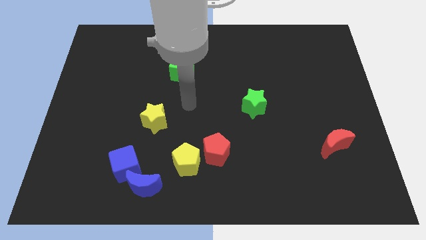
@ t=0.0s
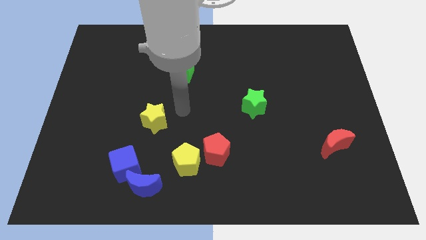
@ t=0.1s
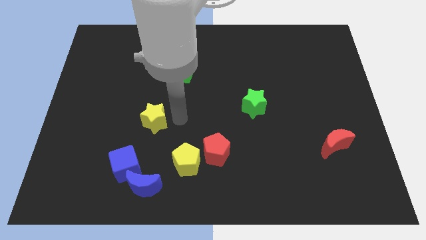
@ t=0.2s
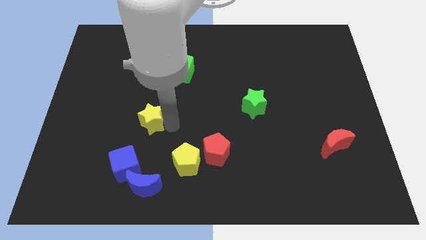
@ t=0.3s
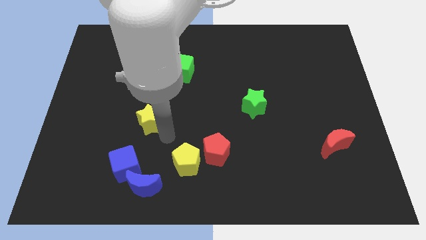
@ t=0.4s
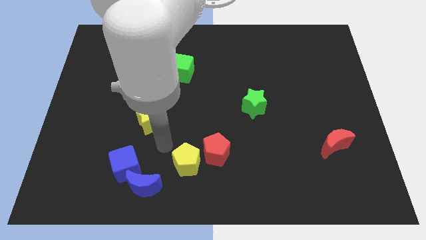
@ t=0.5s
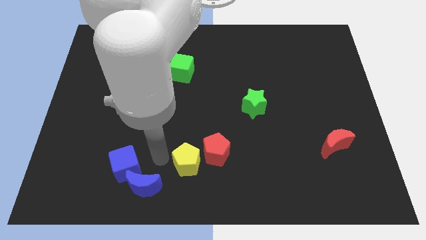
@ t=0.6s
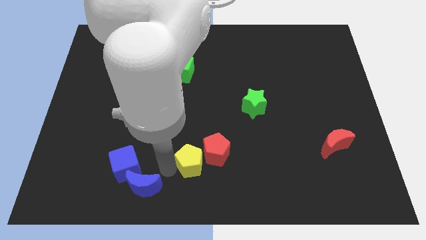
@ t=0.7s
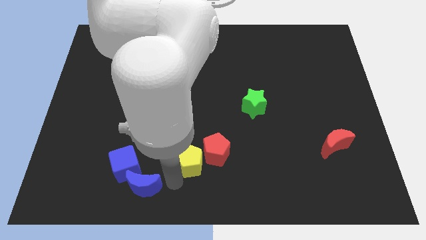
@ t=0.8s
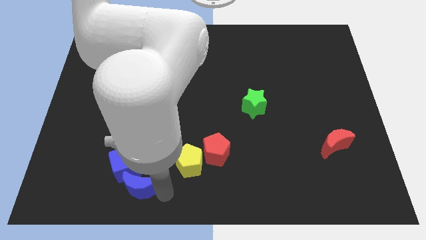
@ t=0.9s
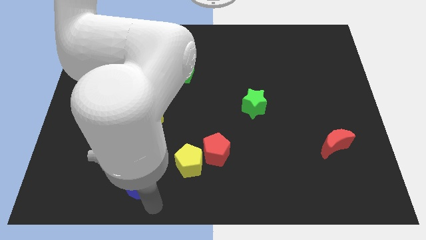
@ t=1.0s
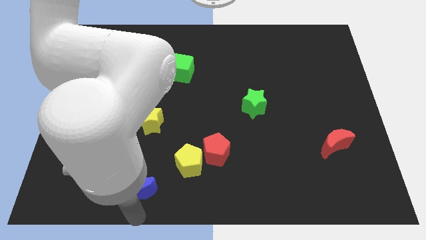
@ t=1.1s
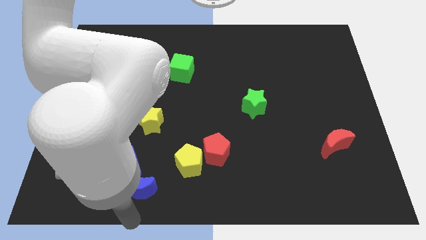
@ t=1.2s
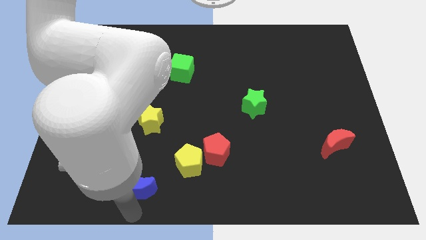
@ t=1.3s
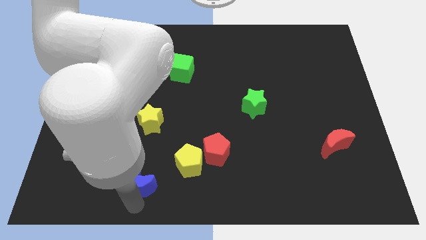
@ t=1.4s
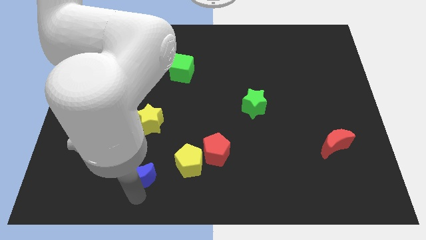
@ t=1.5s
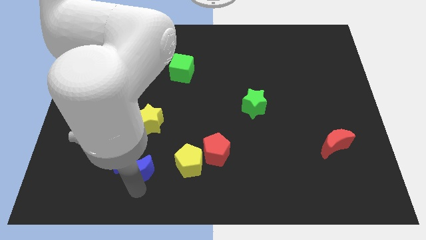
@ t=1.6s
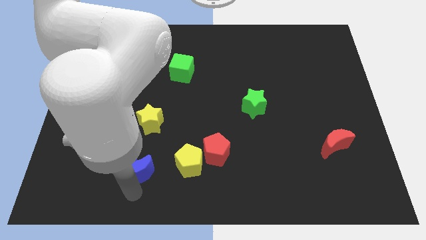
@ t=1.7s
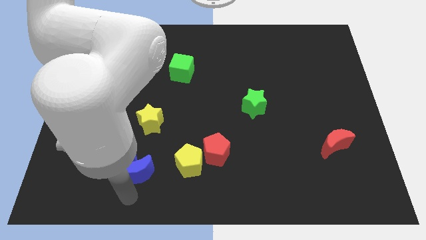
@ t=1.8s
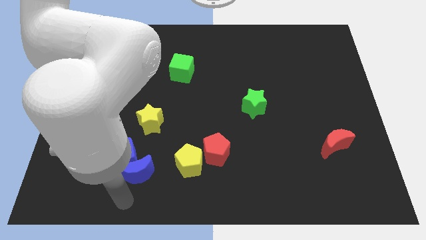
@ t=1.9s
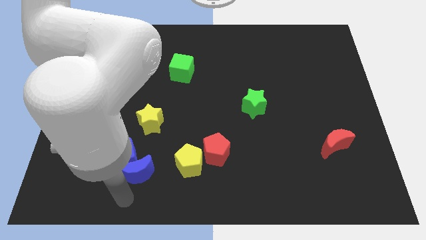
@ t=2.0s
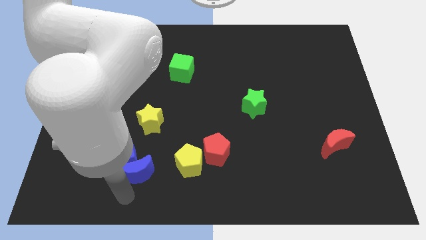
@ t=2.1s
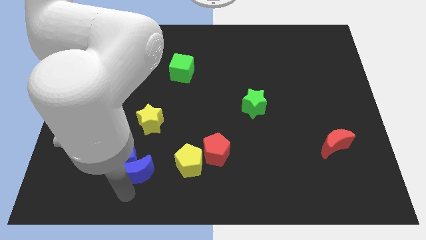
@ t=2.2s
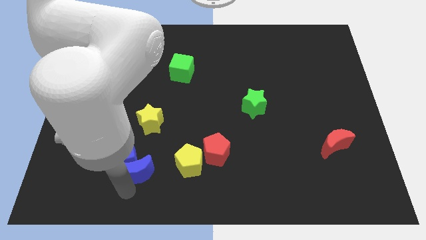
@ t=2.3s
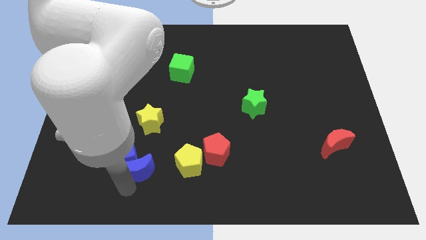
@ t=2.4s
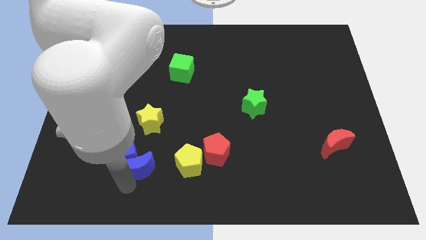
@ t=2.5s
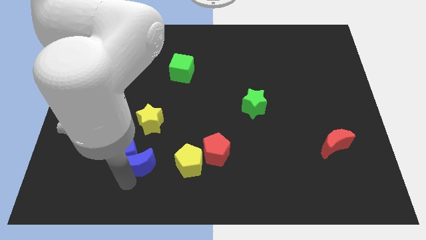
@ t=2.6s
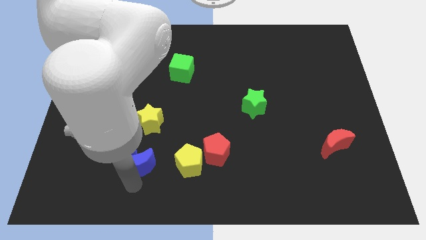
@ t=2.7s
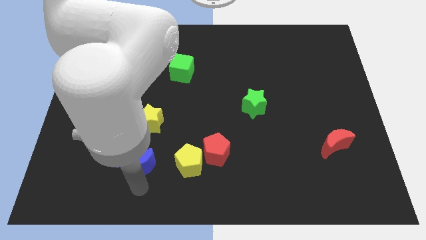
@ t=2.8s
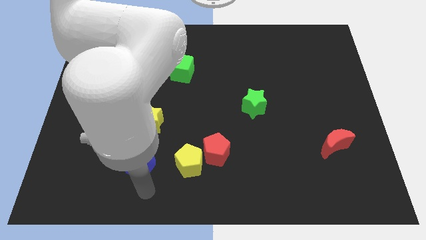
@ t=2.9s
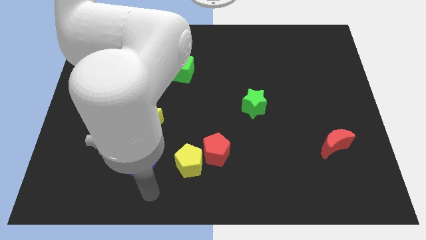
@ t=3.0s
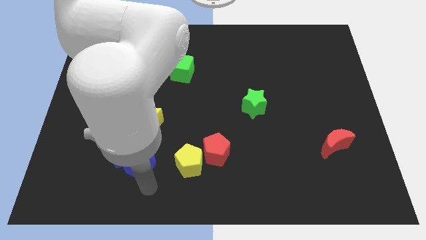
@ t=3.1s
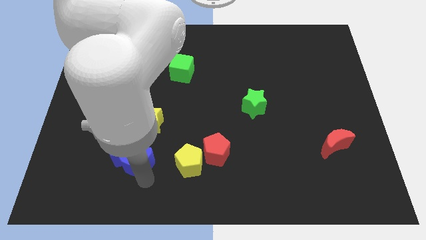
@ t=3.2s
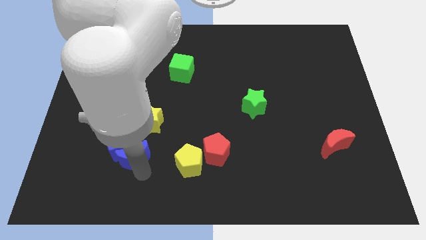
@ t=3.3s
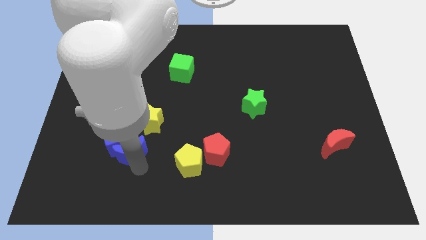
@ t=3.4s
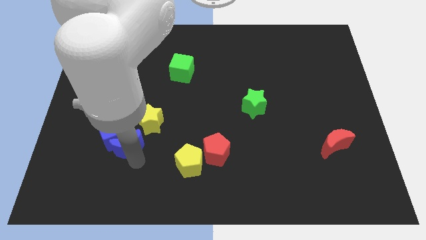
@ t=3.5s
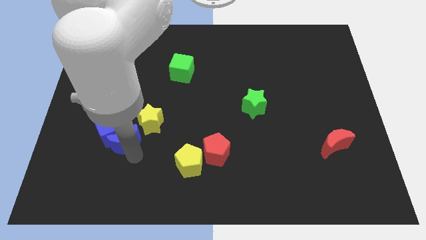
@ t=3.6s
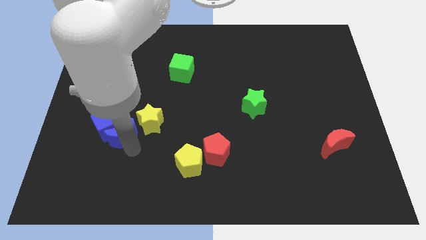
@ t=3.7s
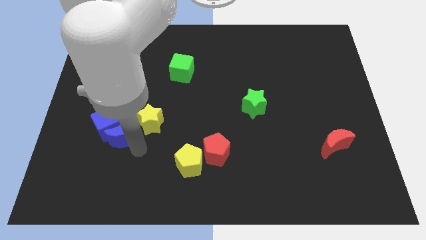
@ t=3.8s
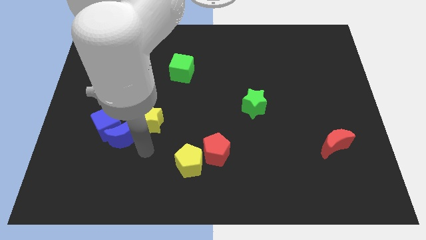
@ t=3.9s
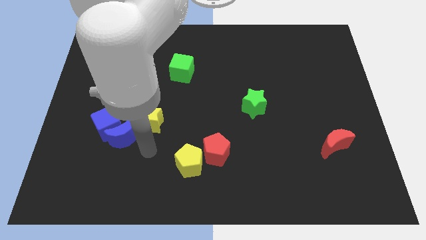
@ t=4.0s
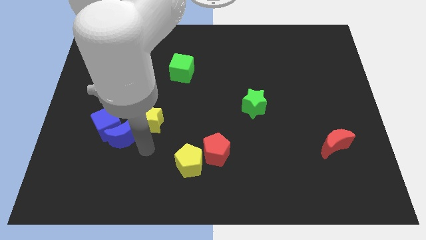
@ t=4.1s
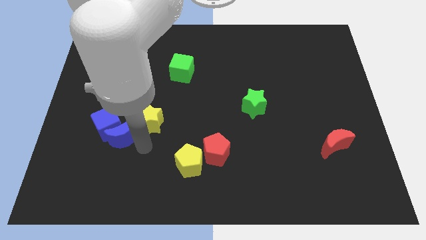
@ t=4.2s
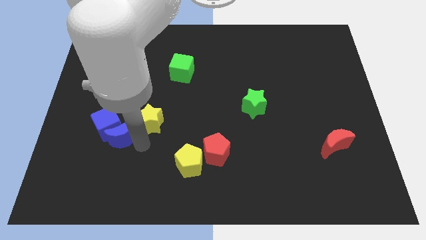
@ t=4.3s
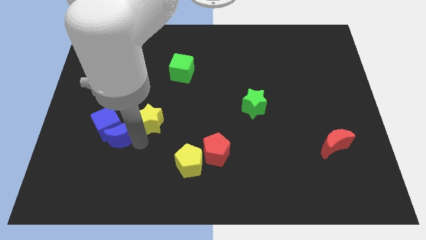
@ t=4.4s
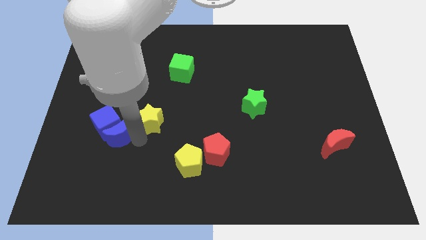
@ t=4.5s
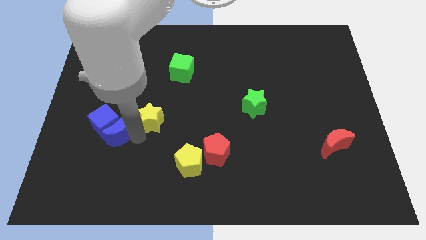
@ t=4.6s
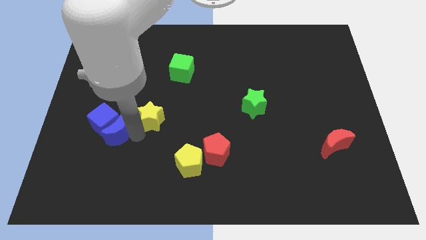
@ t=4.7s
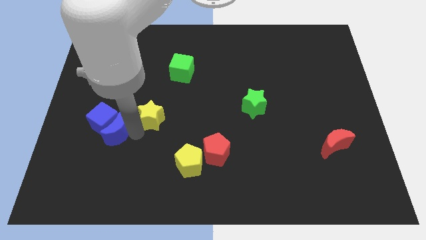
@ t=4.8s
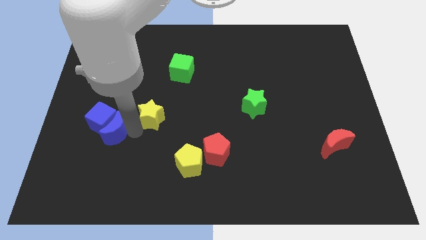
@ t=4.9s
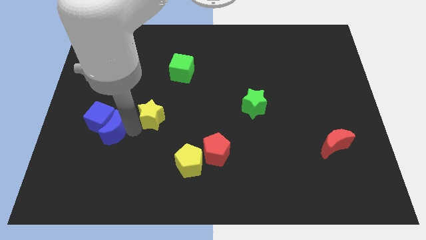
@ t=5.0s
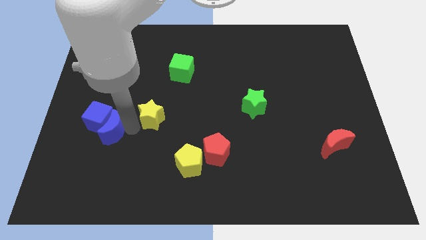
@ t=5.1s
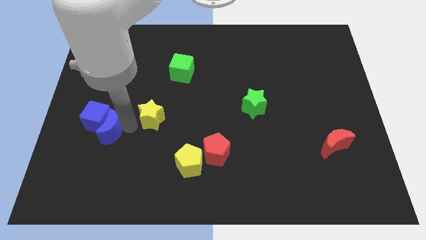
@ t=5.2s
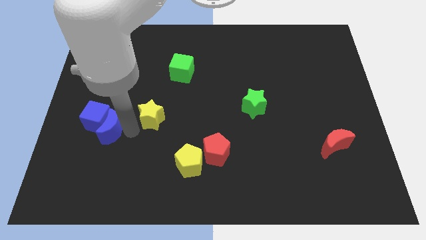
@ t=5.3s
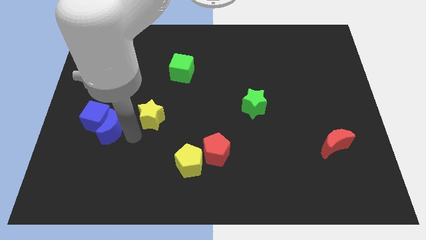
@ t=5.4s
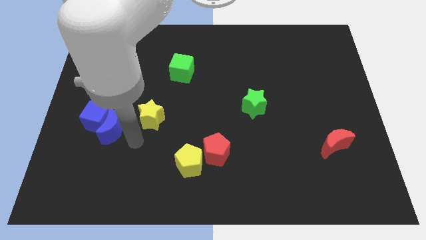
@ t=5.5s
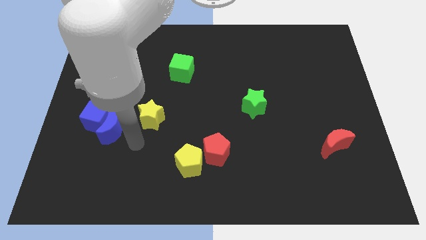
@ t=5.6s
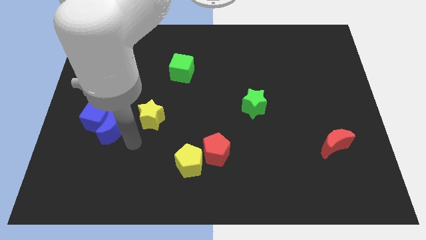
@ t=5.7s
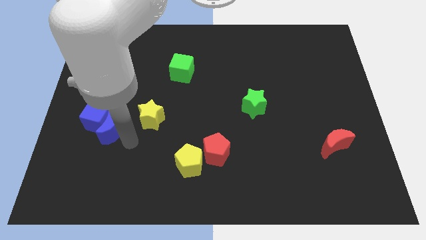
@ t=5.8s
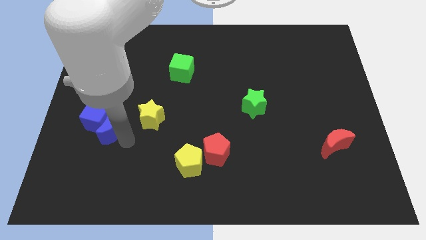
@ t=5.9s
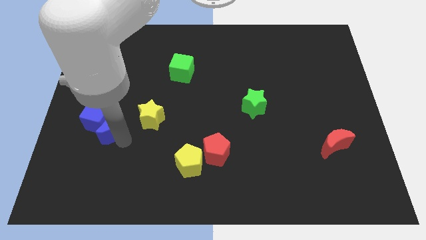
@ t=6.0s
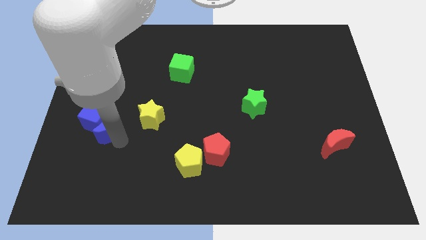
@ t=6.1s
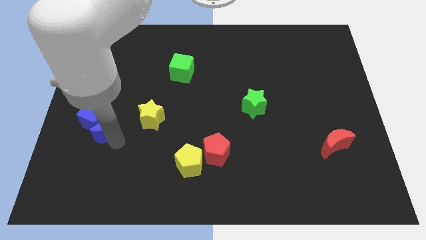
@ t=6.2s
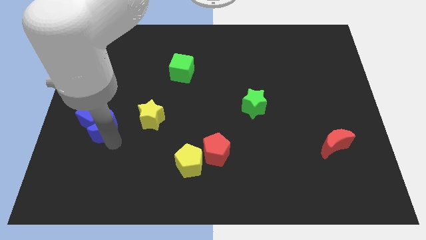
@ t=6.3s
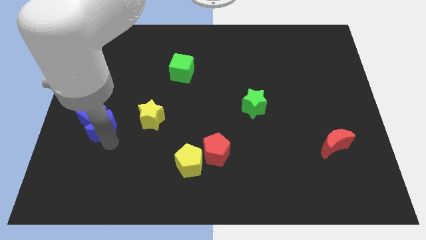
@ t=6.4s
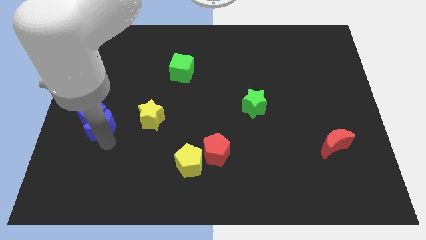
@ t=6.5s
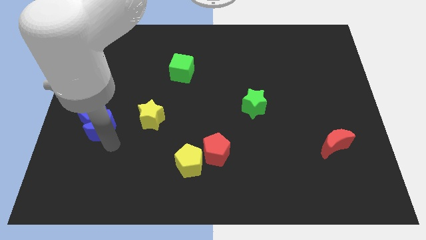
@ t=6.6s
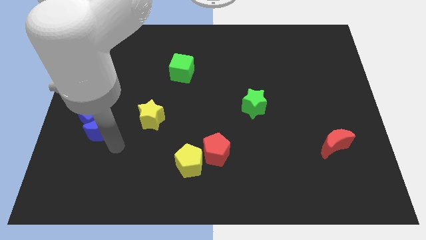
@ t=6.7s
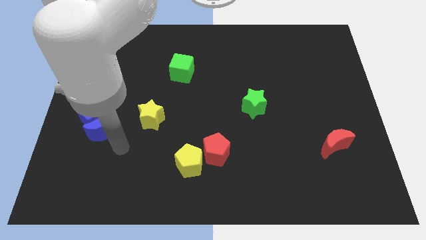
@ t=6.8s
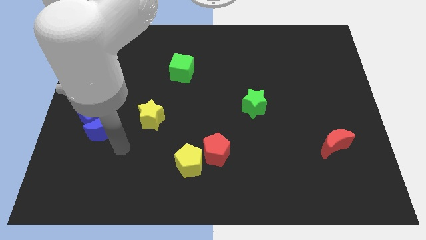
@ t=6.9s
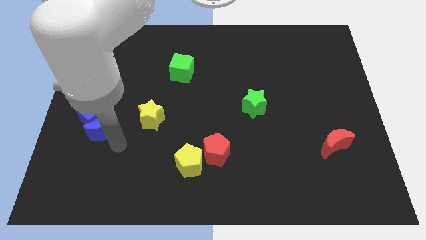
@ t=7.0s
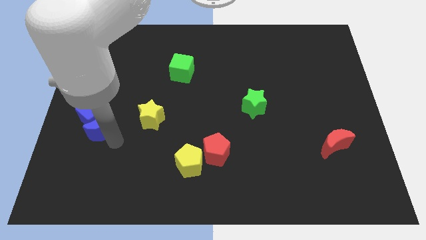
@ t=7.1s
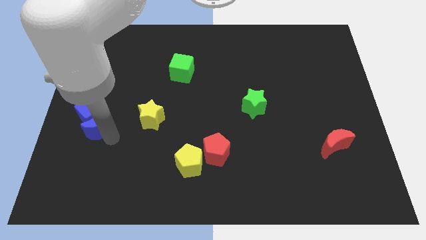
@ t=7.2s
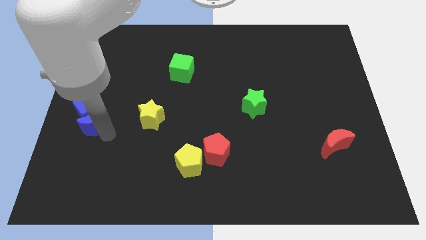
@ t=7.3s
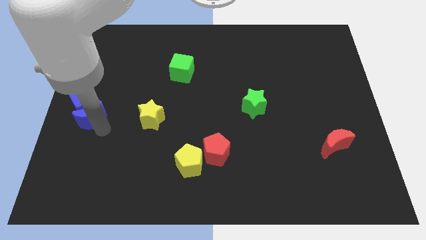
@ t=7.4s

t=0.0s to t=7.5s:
push the blue moon to the center left
